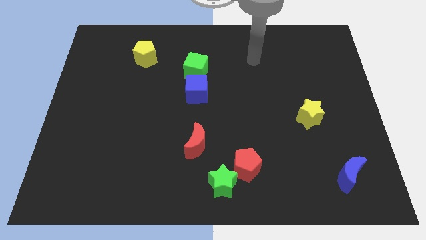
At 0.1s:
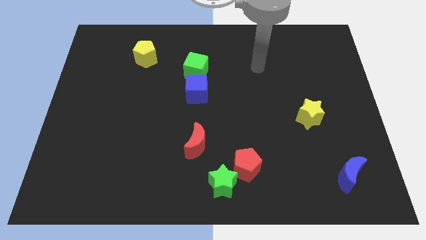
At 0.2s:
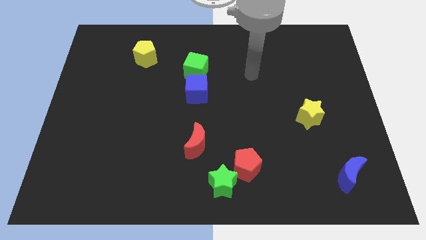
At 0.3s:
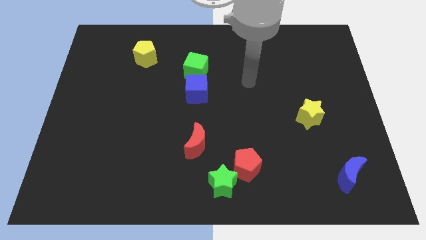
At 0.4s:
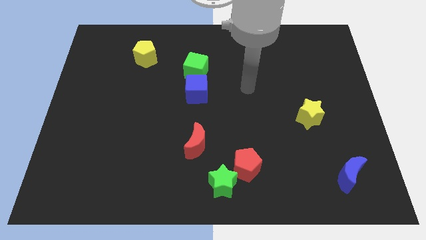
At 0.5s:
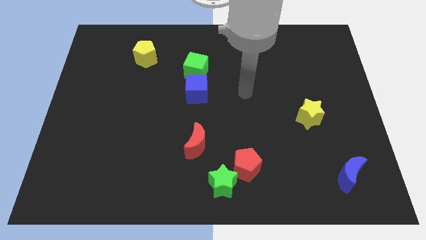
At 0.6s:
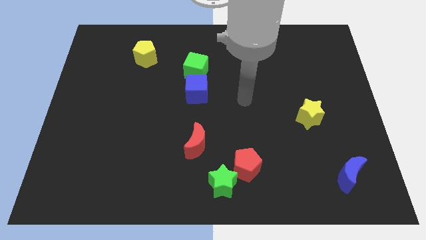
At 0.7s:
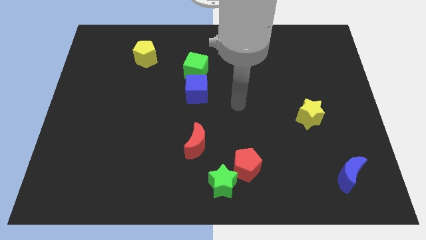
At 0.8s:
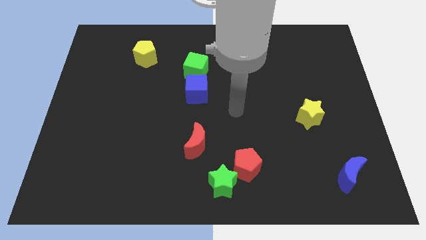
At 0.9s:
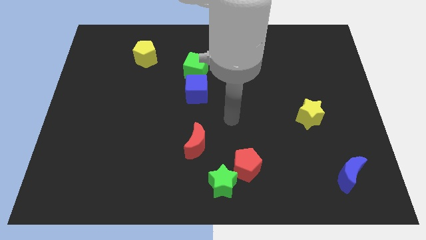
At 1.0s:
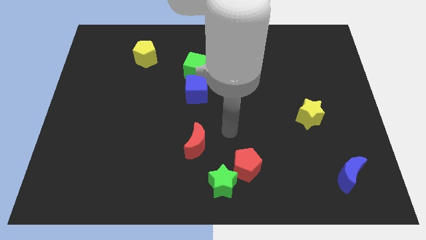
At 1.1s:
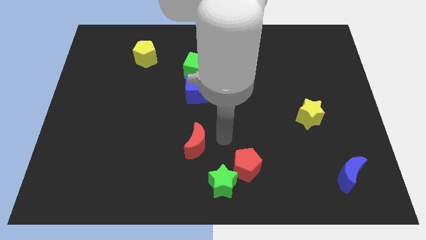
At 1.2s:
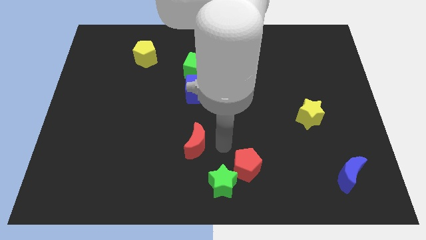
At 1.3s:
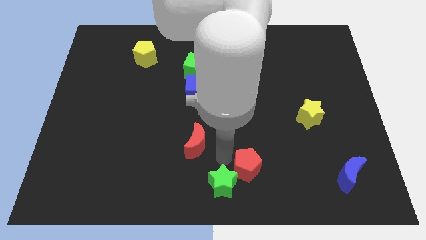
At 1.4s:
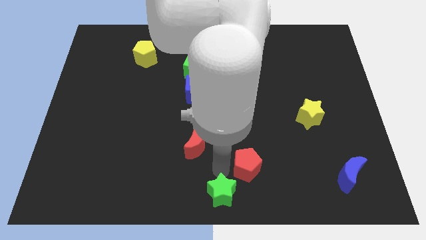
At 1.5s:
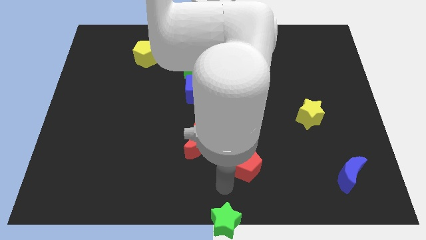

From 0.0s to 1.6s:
pull the red pentagon apart from the green star

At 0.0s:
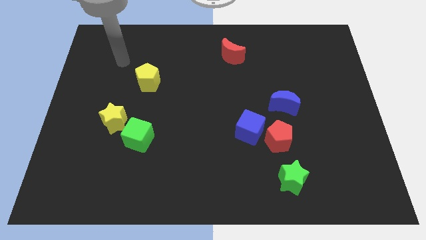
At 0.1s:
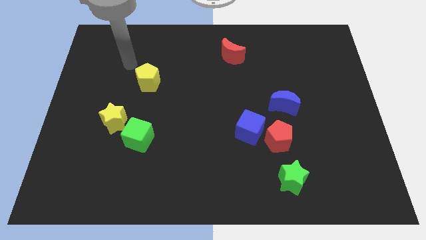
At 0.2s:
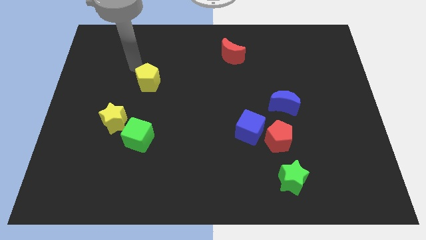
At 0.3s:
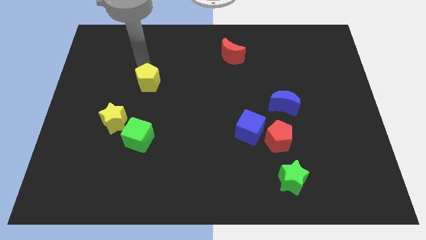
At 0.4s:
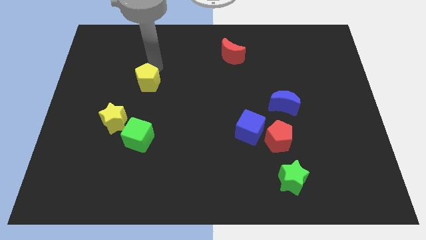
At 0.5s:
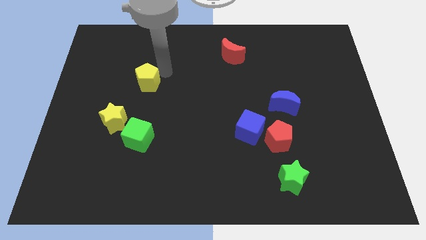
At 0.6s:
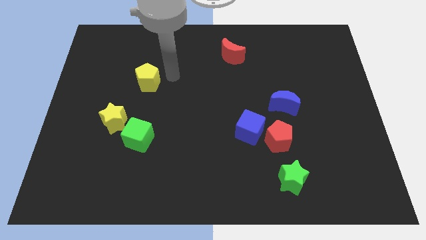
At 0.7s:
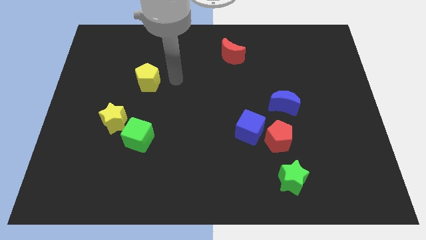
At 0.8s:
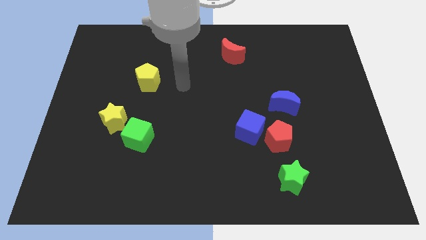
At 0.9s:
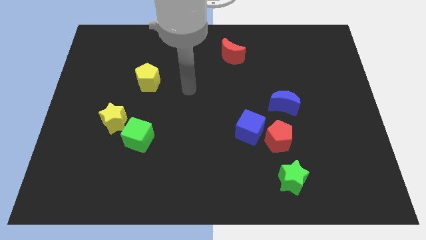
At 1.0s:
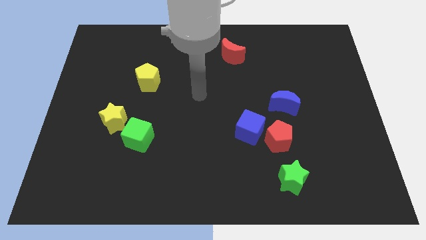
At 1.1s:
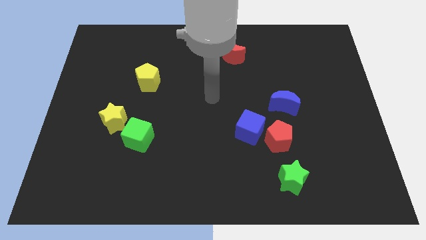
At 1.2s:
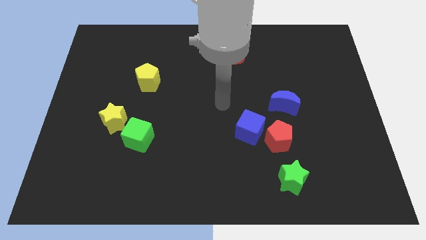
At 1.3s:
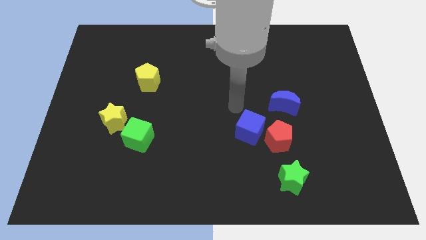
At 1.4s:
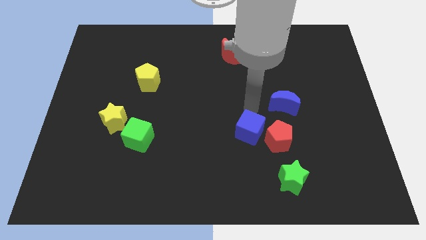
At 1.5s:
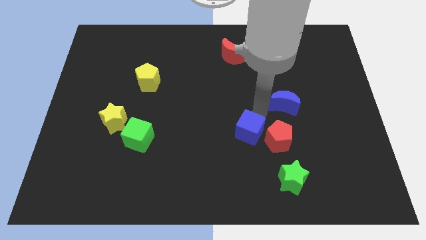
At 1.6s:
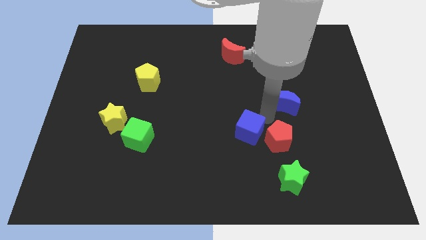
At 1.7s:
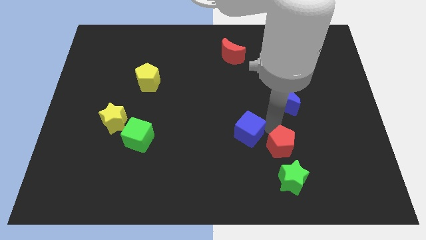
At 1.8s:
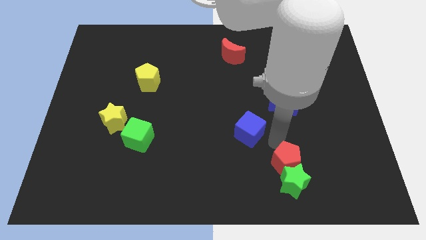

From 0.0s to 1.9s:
move the blue cube away from the red pentagon

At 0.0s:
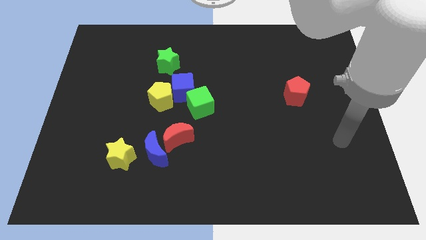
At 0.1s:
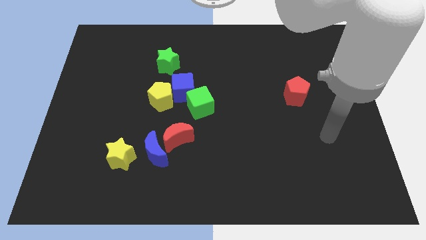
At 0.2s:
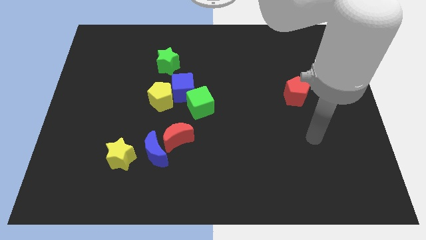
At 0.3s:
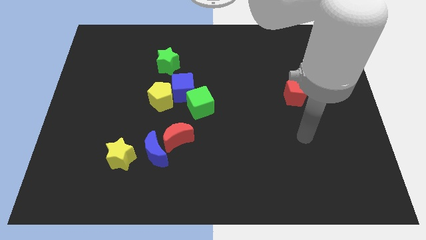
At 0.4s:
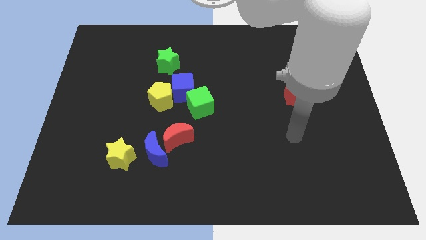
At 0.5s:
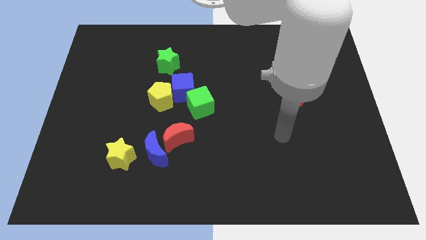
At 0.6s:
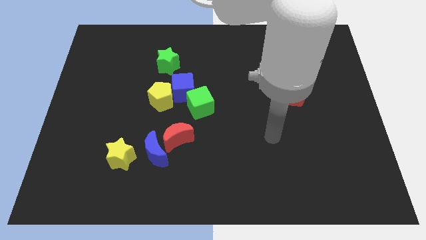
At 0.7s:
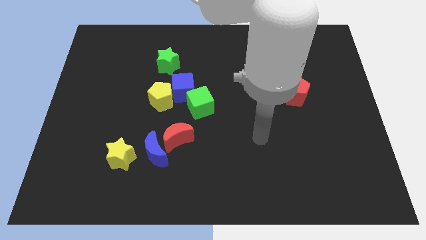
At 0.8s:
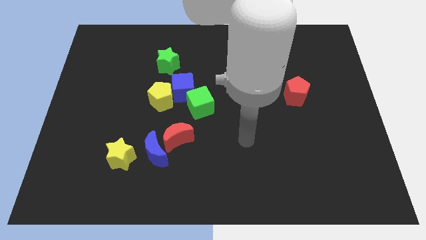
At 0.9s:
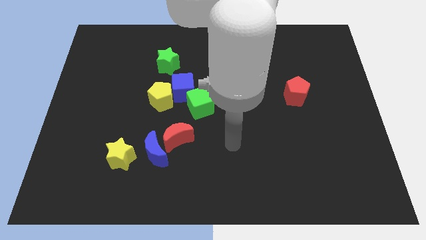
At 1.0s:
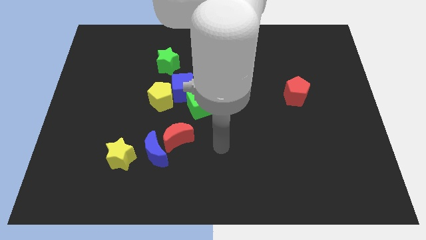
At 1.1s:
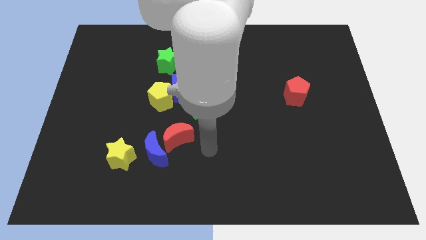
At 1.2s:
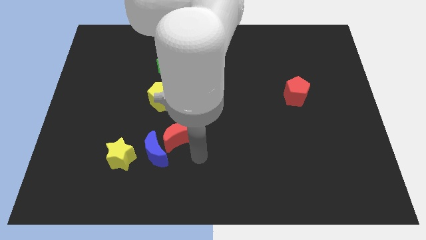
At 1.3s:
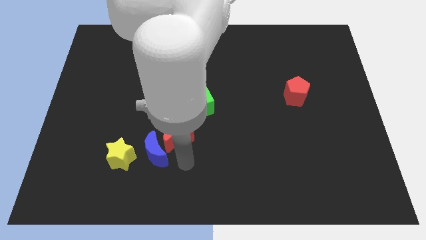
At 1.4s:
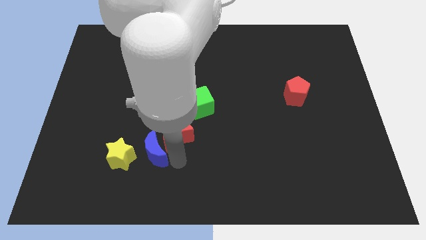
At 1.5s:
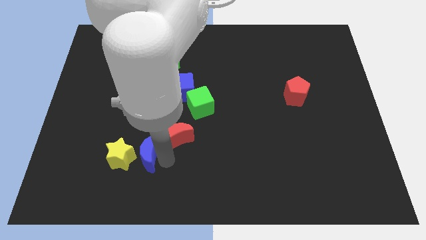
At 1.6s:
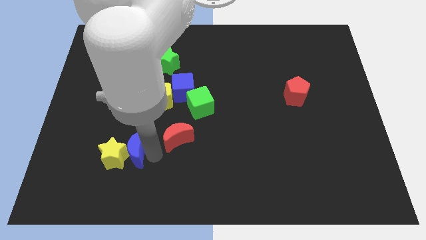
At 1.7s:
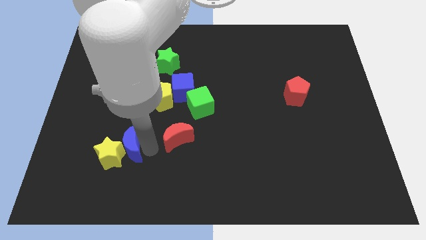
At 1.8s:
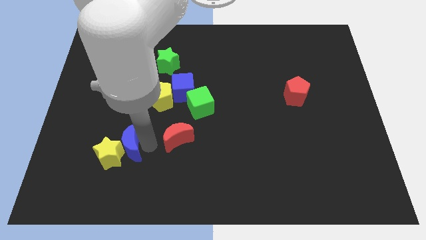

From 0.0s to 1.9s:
pull the red moon apart from the blue moon

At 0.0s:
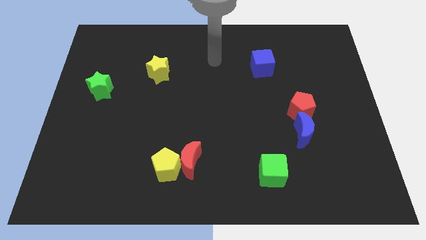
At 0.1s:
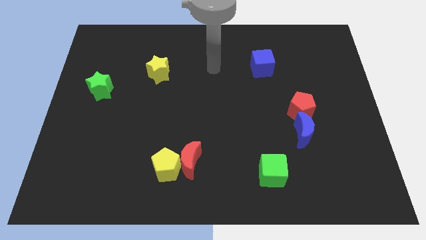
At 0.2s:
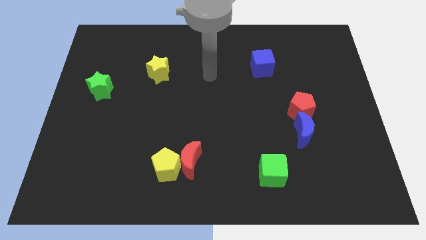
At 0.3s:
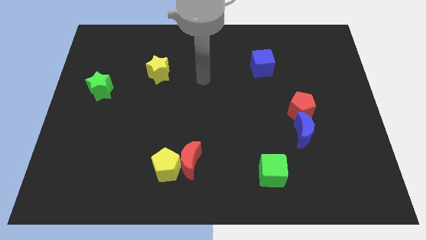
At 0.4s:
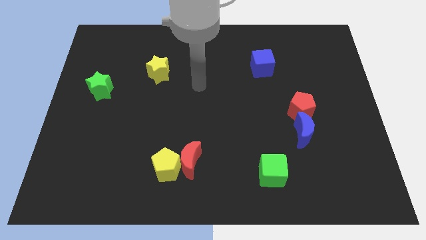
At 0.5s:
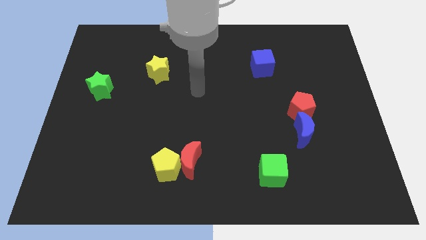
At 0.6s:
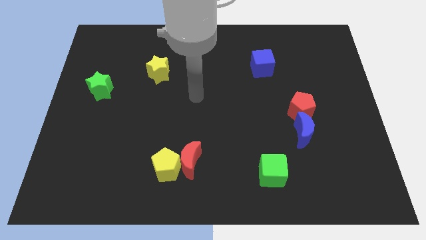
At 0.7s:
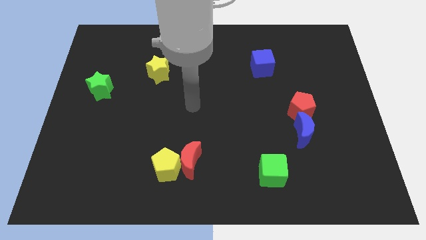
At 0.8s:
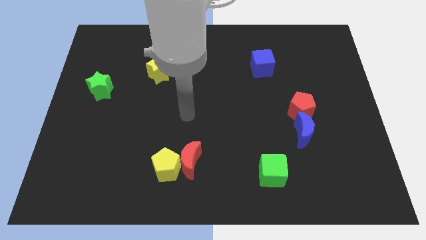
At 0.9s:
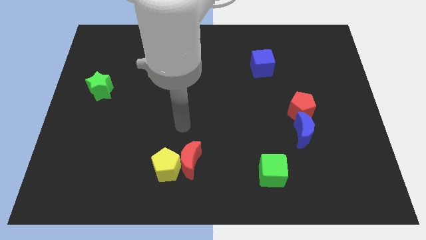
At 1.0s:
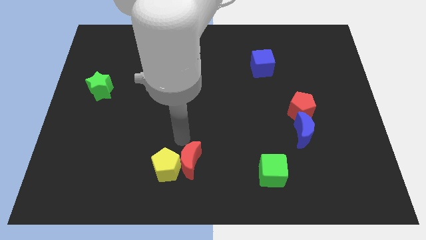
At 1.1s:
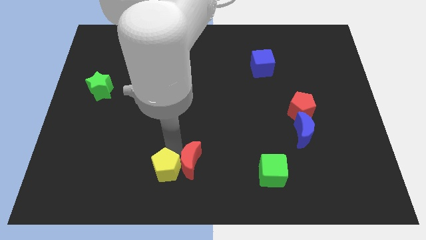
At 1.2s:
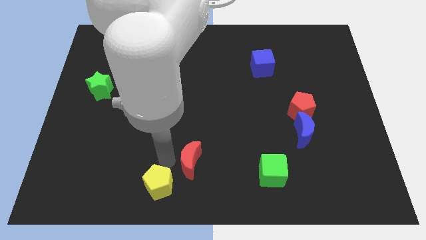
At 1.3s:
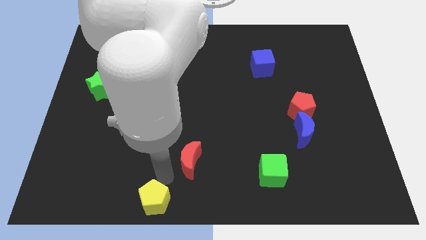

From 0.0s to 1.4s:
separate the red moon from the yellow pentagon

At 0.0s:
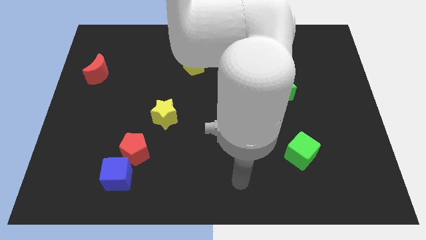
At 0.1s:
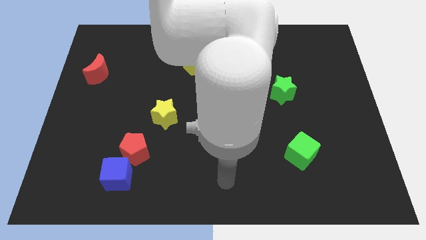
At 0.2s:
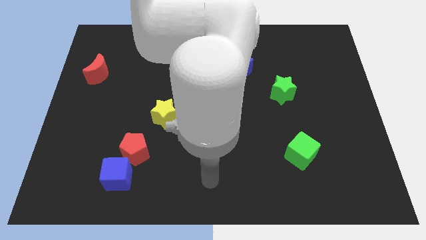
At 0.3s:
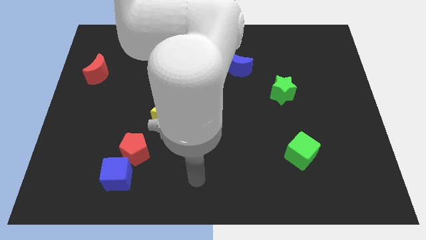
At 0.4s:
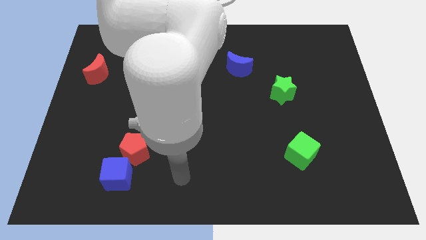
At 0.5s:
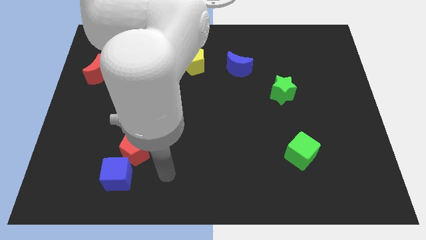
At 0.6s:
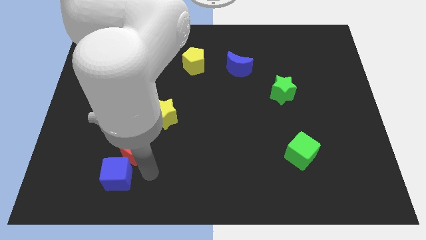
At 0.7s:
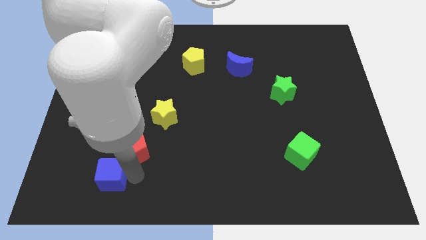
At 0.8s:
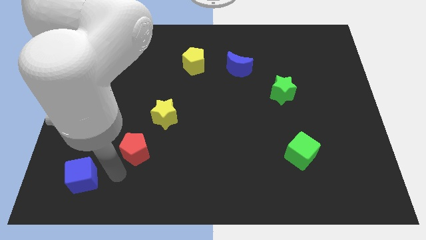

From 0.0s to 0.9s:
pull the red pentagon apart from the blue cube

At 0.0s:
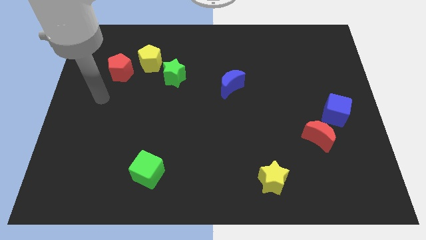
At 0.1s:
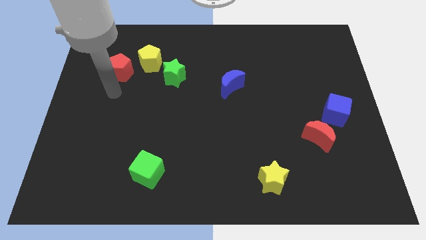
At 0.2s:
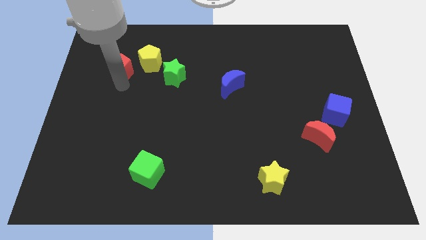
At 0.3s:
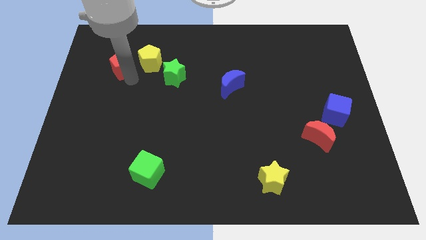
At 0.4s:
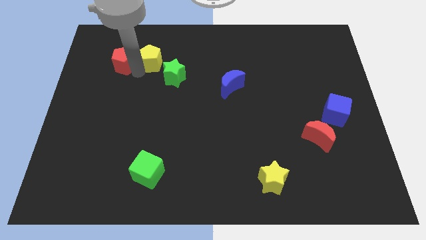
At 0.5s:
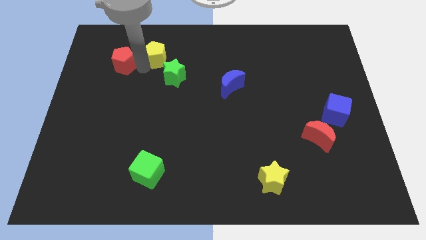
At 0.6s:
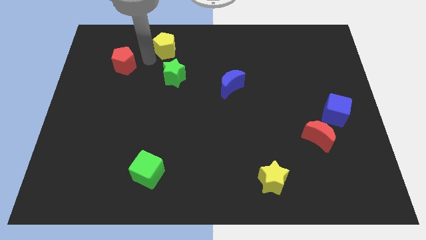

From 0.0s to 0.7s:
separate the red pentagon from the yellow pentagon

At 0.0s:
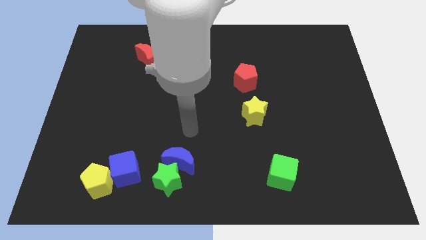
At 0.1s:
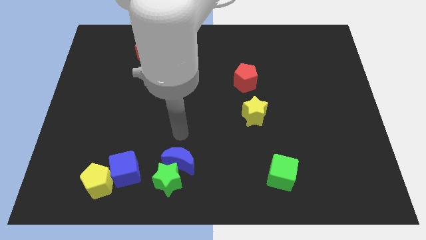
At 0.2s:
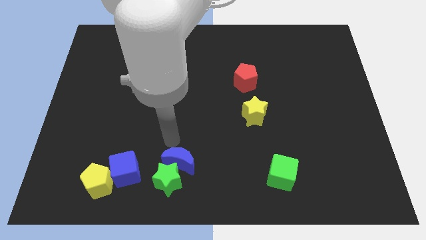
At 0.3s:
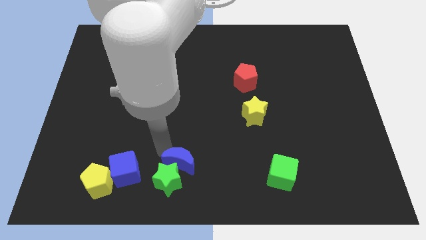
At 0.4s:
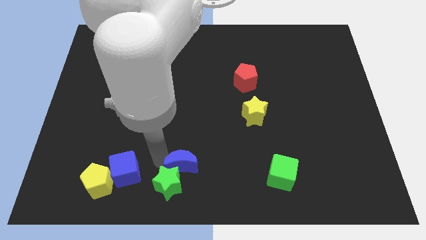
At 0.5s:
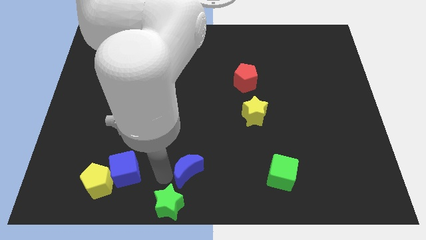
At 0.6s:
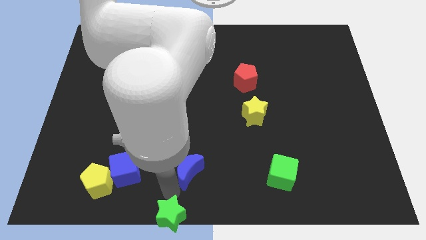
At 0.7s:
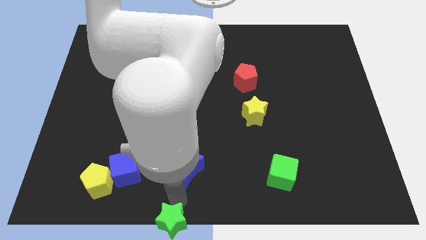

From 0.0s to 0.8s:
pull the blue moon apart from the green star

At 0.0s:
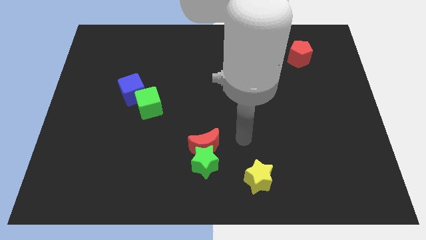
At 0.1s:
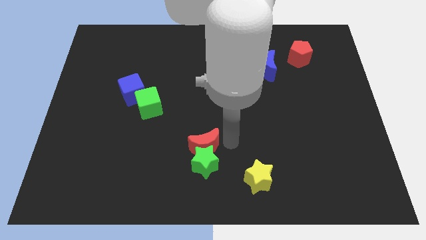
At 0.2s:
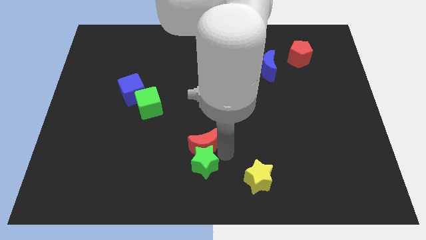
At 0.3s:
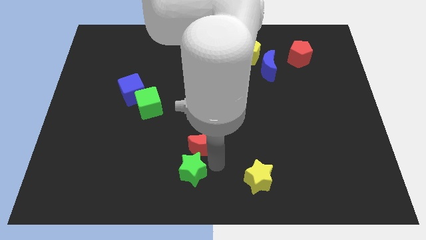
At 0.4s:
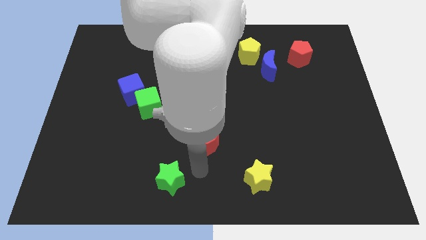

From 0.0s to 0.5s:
separate the red moon from the green star
